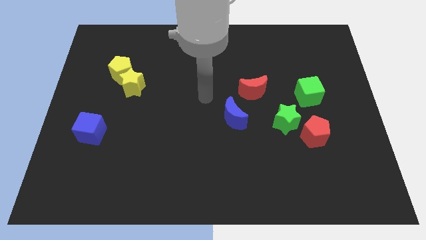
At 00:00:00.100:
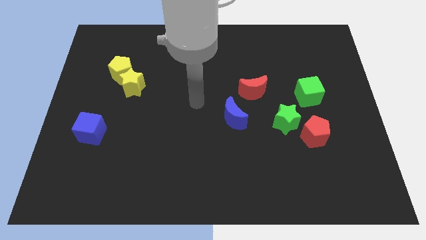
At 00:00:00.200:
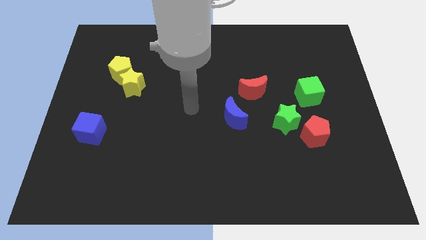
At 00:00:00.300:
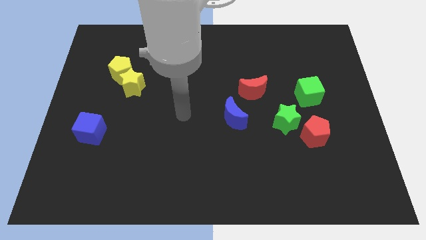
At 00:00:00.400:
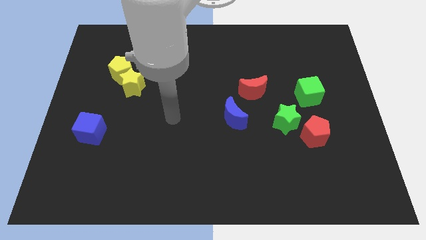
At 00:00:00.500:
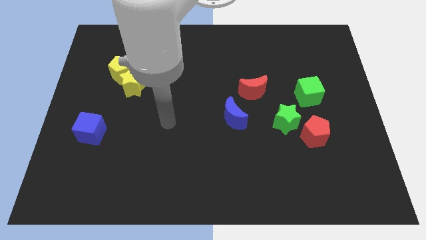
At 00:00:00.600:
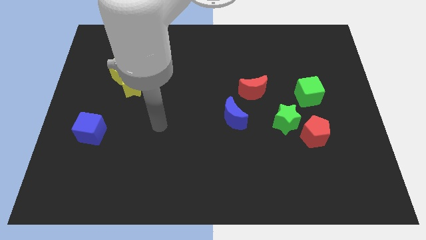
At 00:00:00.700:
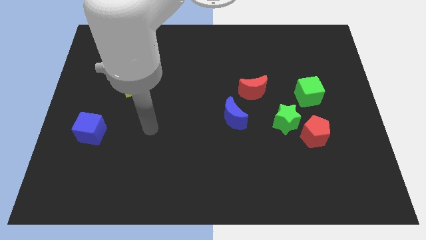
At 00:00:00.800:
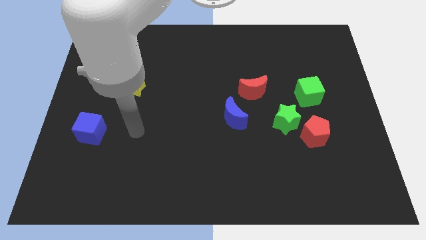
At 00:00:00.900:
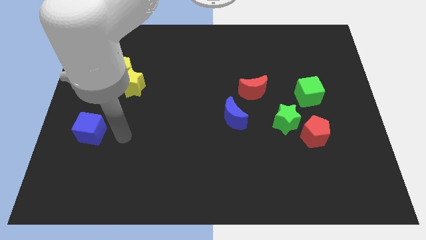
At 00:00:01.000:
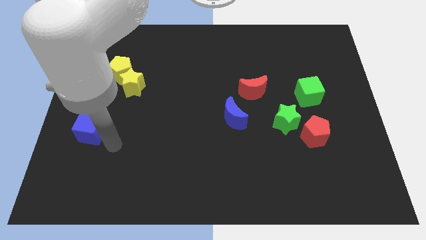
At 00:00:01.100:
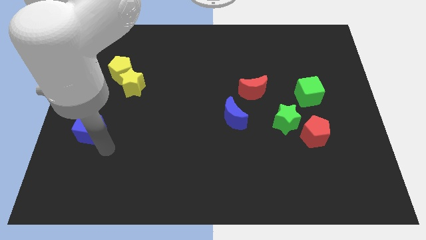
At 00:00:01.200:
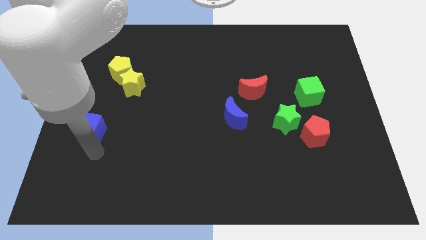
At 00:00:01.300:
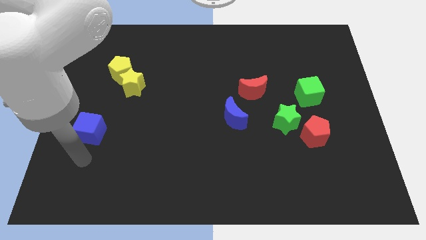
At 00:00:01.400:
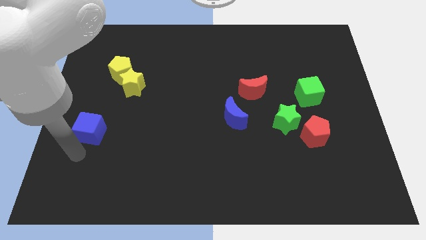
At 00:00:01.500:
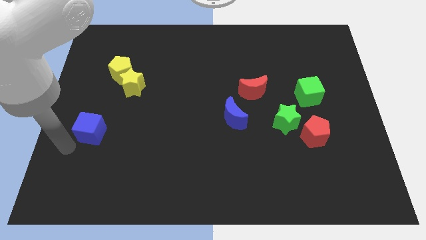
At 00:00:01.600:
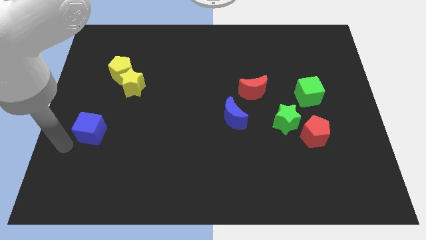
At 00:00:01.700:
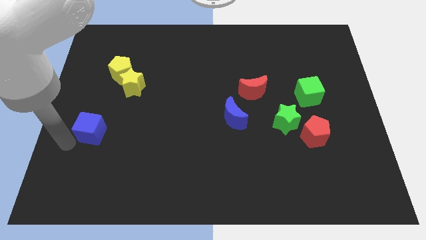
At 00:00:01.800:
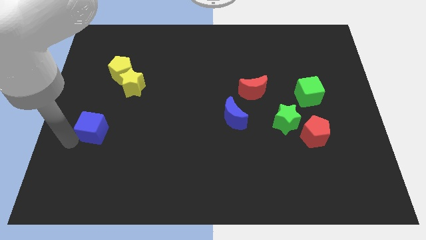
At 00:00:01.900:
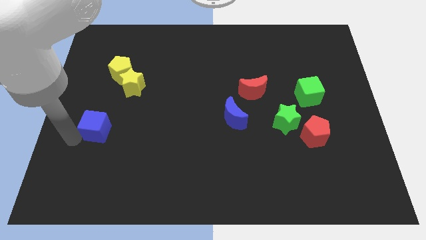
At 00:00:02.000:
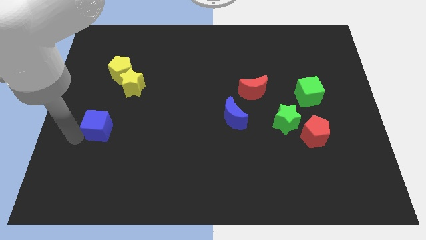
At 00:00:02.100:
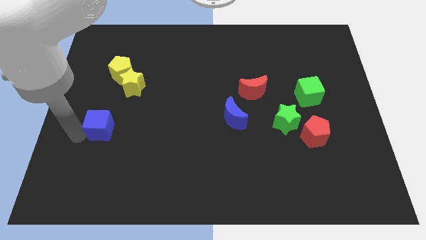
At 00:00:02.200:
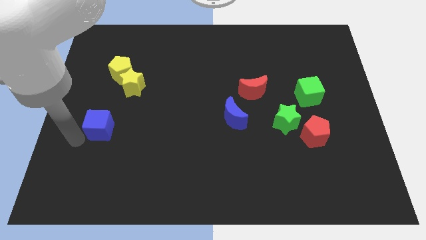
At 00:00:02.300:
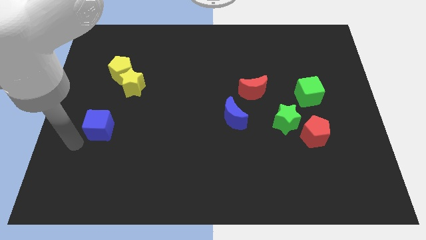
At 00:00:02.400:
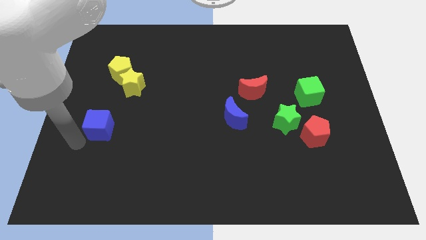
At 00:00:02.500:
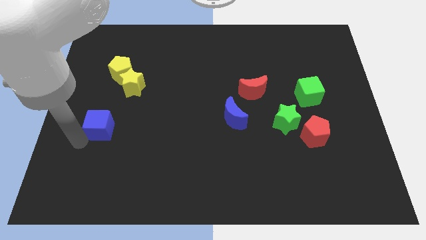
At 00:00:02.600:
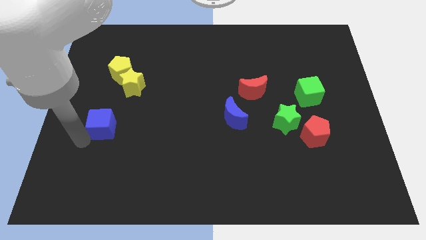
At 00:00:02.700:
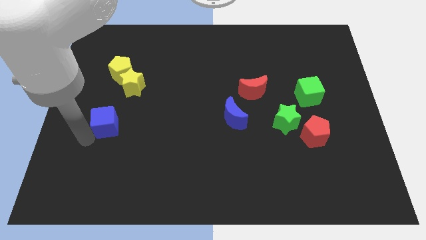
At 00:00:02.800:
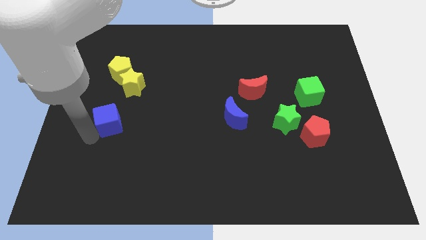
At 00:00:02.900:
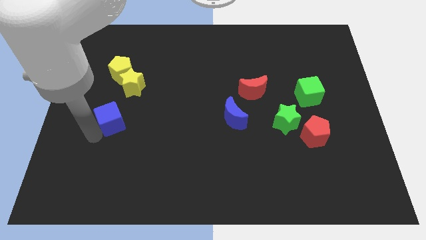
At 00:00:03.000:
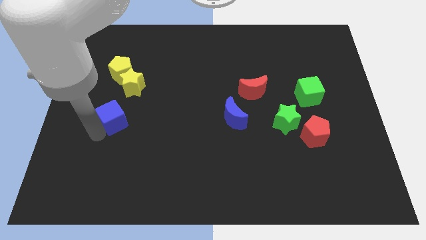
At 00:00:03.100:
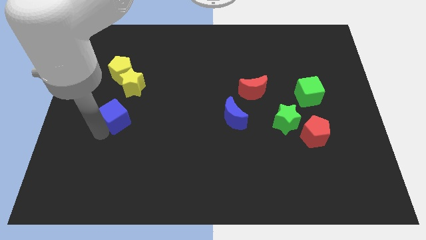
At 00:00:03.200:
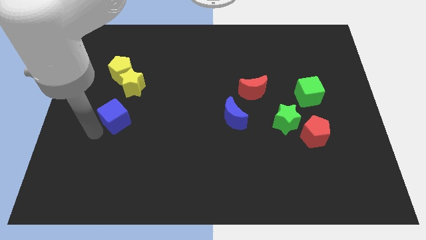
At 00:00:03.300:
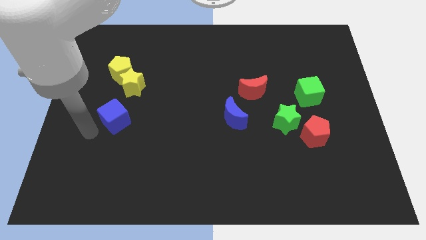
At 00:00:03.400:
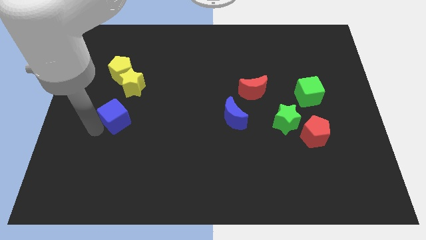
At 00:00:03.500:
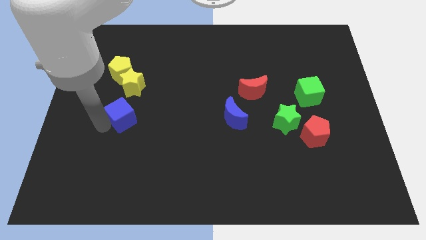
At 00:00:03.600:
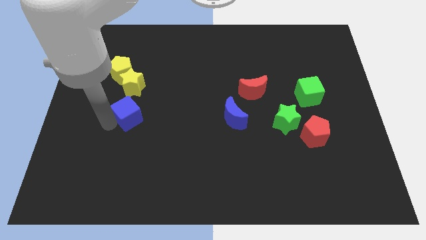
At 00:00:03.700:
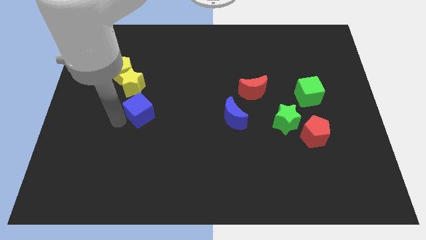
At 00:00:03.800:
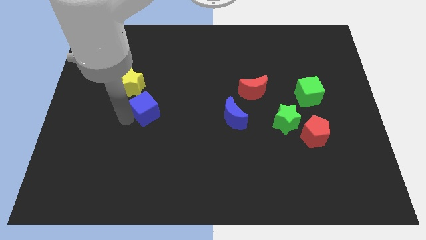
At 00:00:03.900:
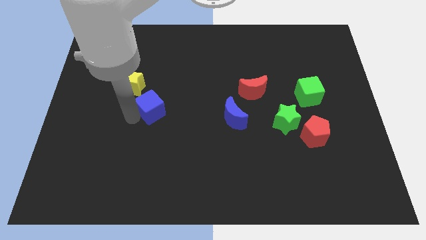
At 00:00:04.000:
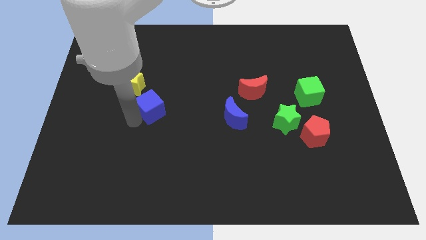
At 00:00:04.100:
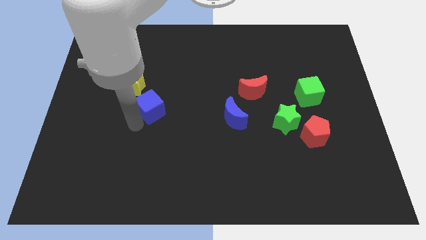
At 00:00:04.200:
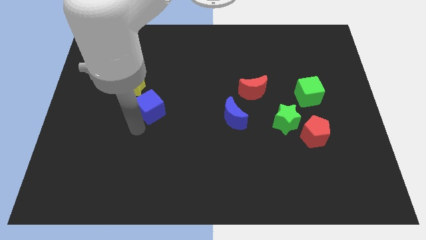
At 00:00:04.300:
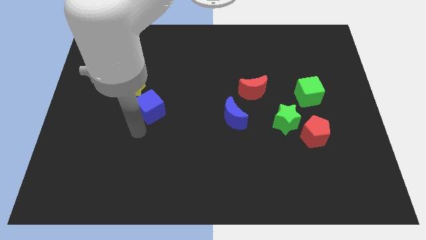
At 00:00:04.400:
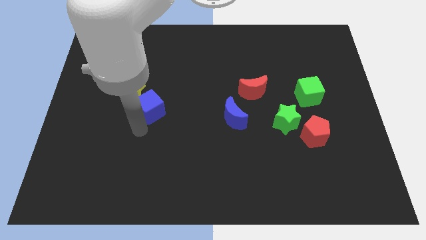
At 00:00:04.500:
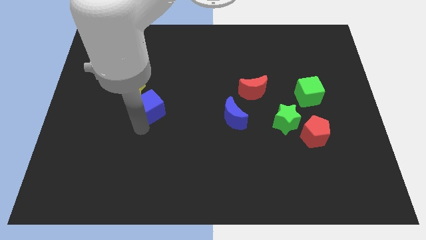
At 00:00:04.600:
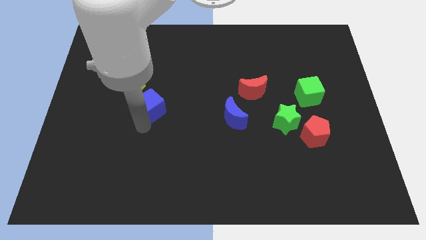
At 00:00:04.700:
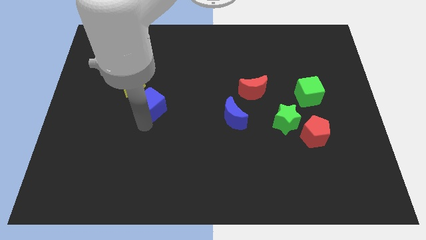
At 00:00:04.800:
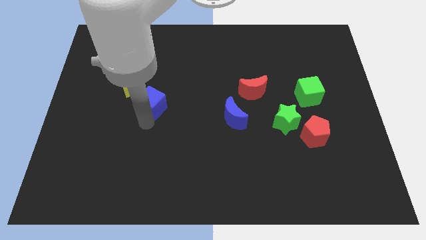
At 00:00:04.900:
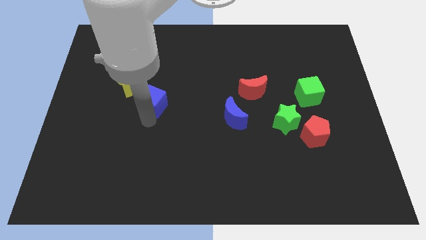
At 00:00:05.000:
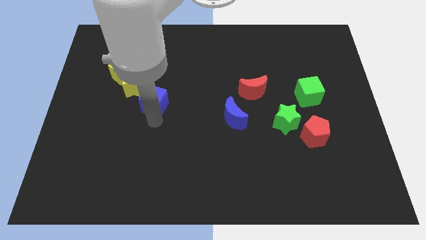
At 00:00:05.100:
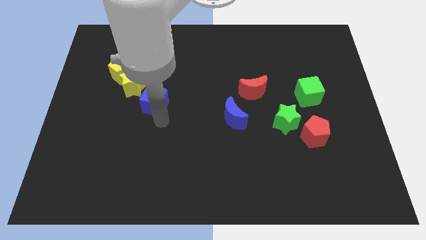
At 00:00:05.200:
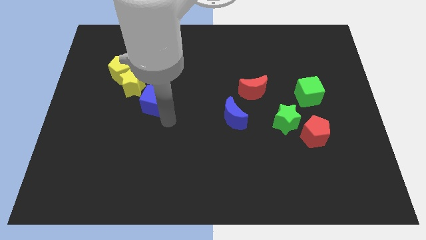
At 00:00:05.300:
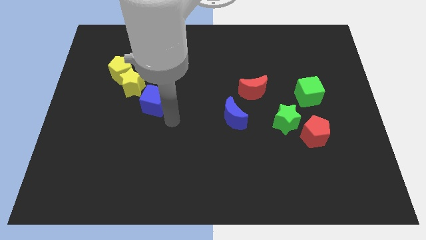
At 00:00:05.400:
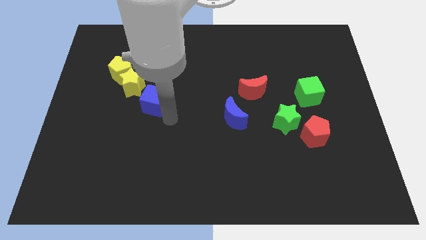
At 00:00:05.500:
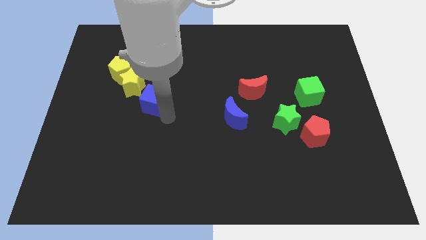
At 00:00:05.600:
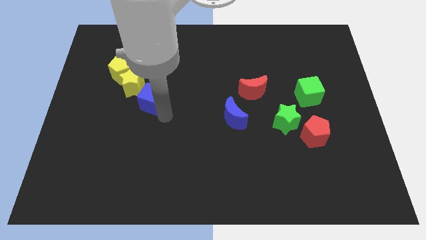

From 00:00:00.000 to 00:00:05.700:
slide the blue cube to the bottom right side of the yellow pentagon

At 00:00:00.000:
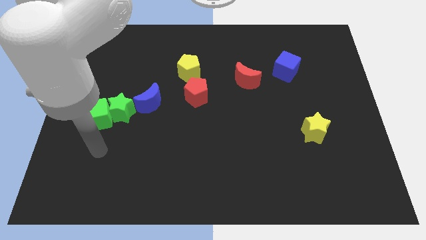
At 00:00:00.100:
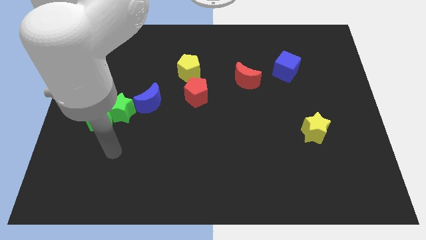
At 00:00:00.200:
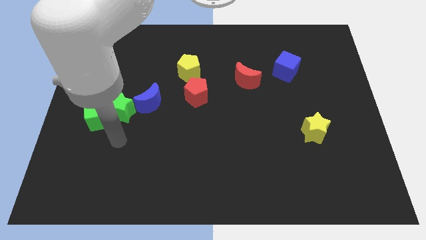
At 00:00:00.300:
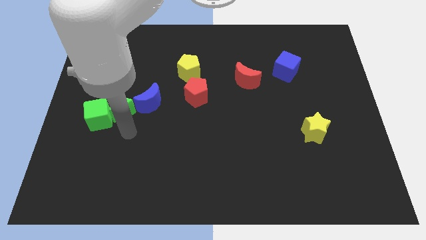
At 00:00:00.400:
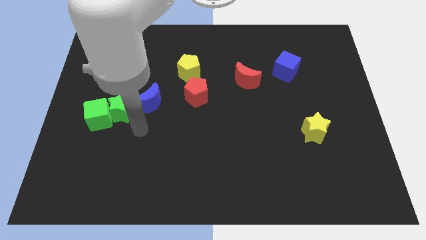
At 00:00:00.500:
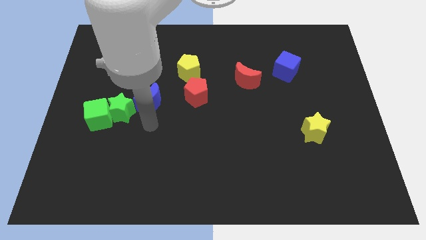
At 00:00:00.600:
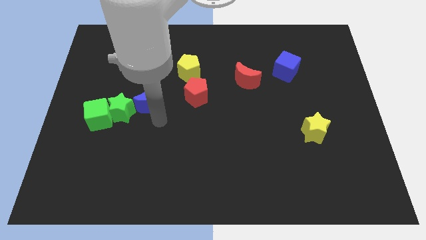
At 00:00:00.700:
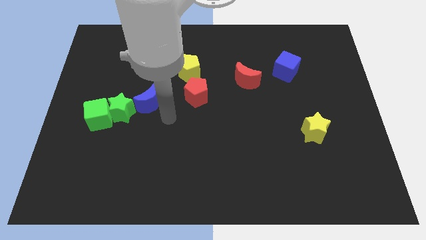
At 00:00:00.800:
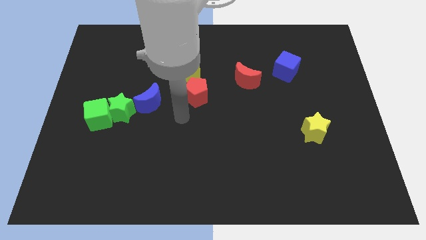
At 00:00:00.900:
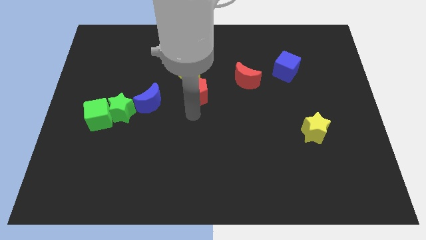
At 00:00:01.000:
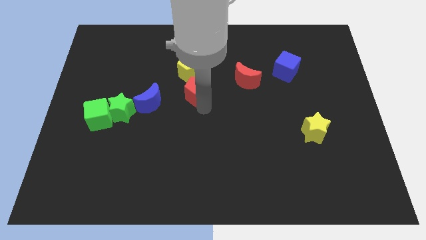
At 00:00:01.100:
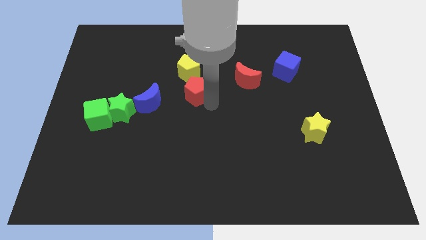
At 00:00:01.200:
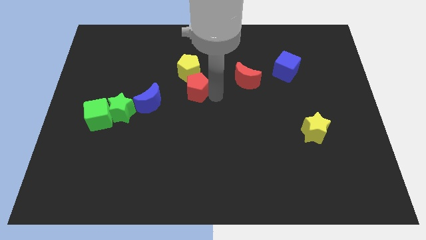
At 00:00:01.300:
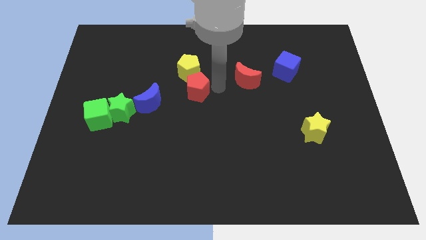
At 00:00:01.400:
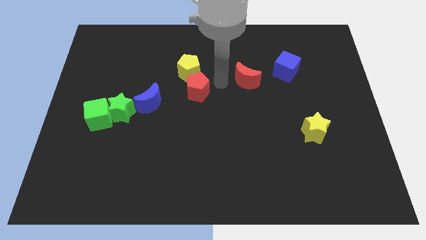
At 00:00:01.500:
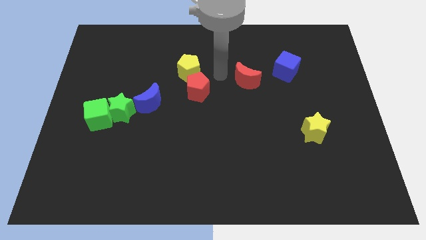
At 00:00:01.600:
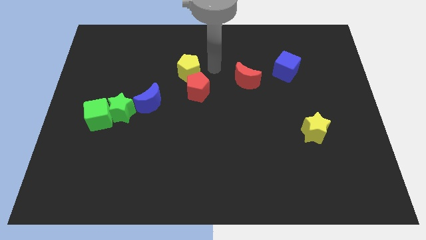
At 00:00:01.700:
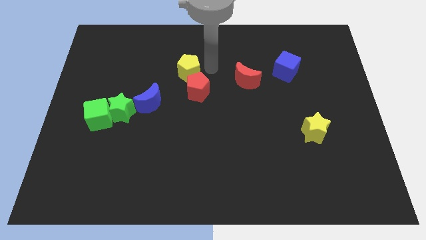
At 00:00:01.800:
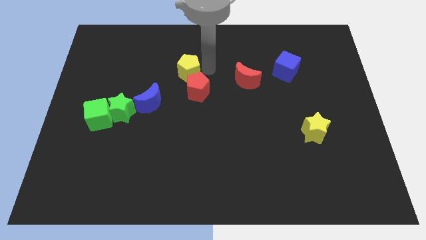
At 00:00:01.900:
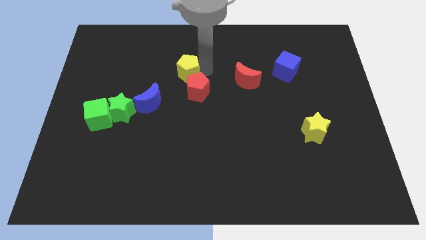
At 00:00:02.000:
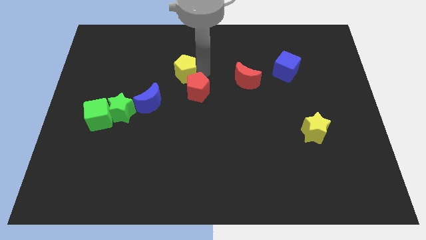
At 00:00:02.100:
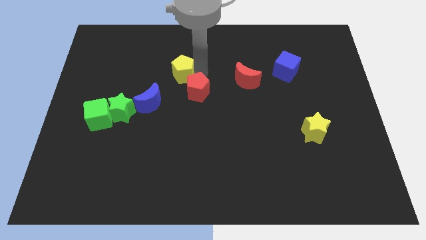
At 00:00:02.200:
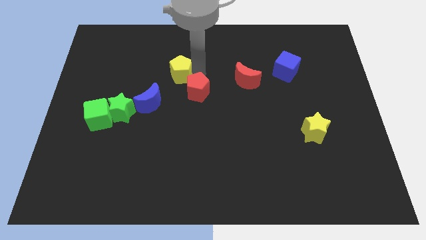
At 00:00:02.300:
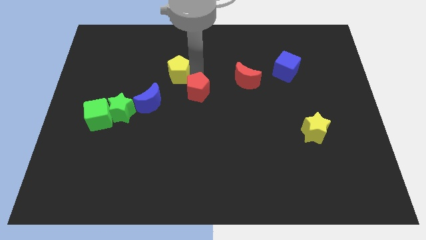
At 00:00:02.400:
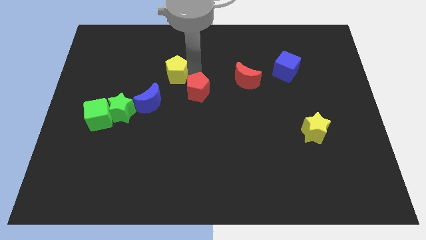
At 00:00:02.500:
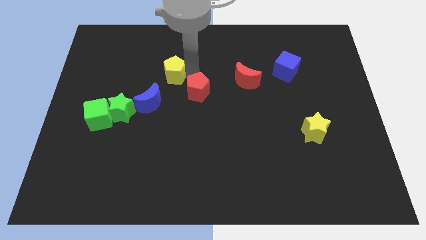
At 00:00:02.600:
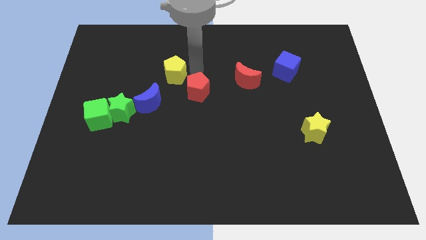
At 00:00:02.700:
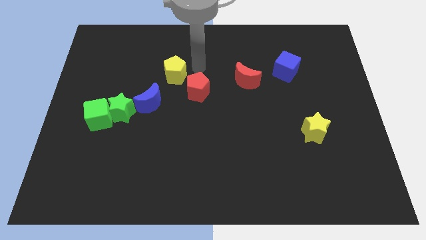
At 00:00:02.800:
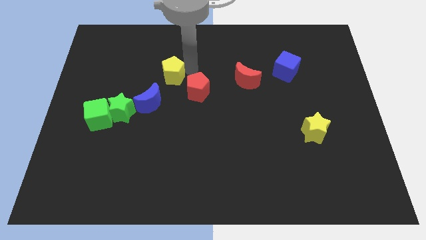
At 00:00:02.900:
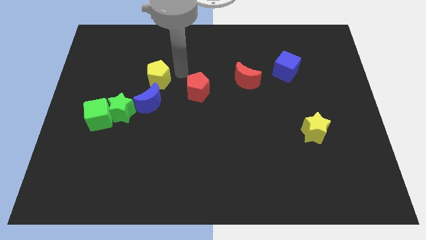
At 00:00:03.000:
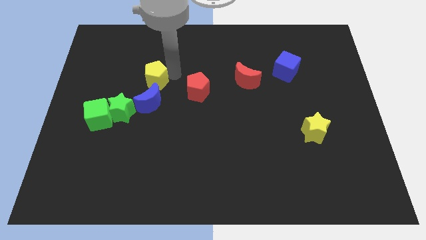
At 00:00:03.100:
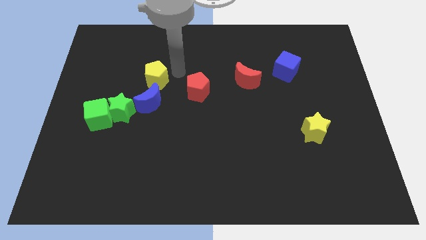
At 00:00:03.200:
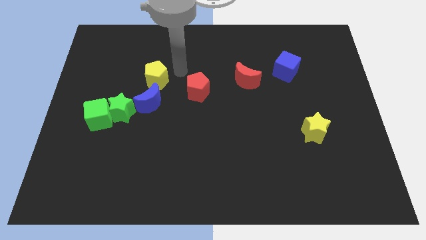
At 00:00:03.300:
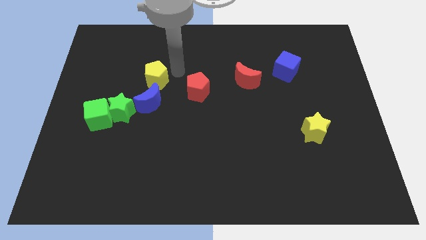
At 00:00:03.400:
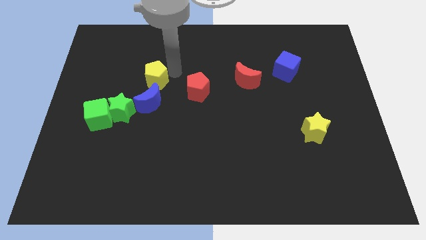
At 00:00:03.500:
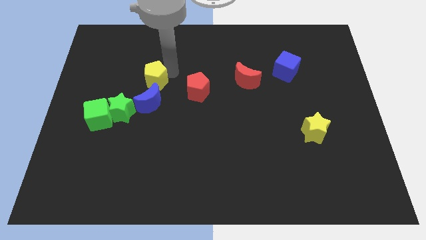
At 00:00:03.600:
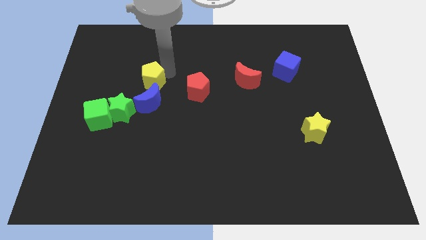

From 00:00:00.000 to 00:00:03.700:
slide the yellow pentagon to the top left of the blue moon
